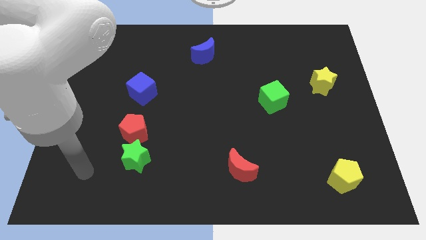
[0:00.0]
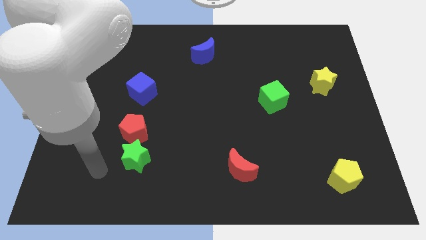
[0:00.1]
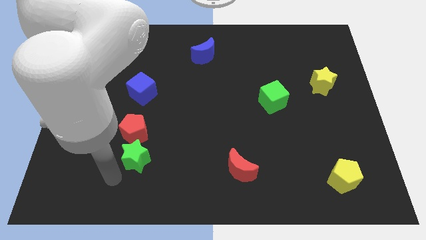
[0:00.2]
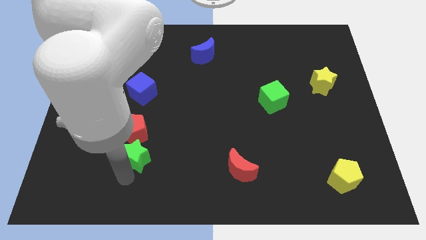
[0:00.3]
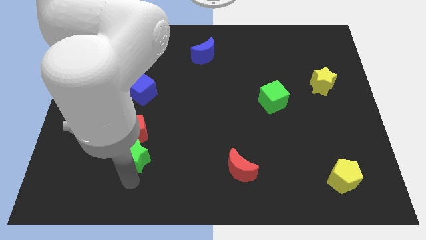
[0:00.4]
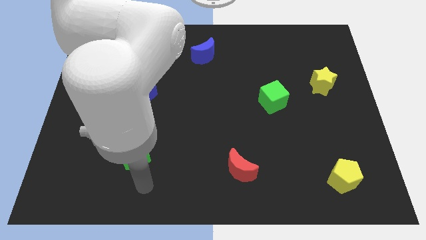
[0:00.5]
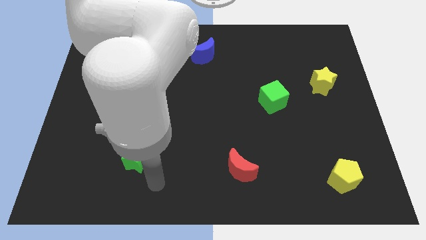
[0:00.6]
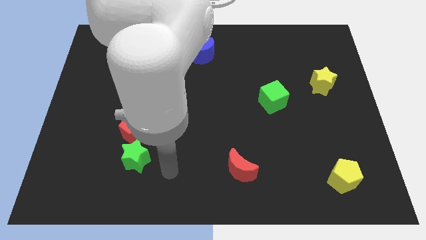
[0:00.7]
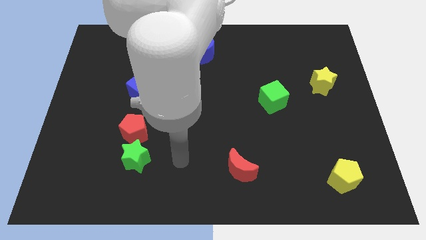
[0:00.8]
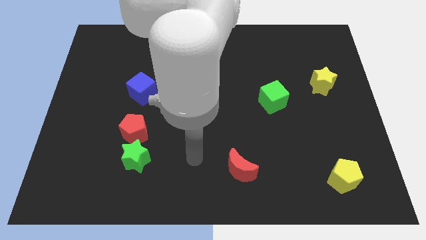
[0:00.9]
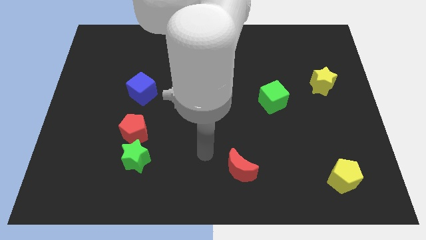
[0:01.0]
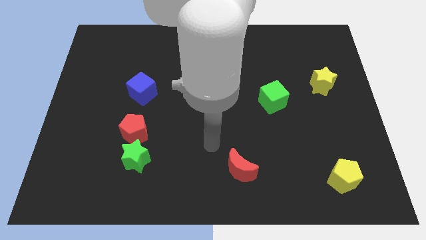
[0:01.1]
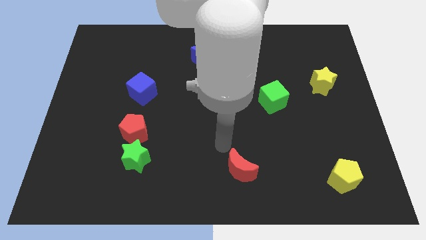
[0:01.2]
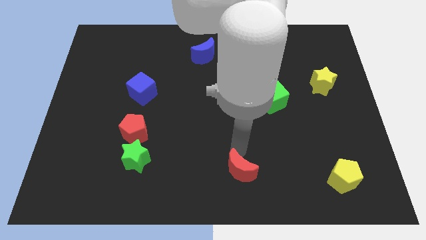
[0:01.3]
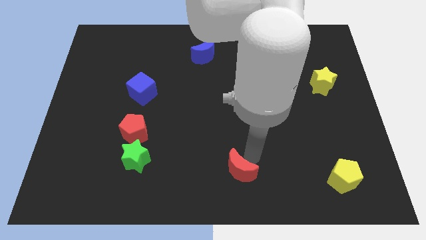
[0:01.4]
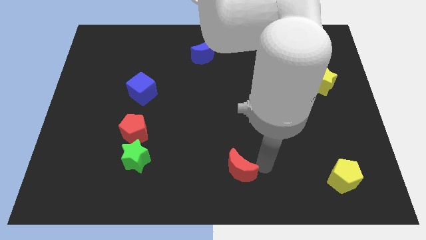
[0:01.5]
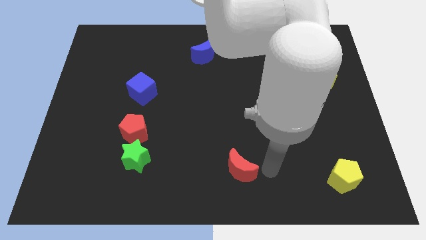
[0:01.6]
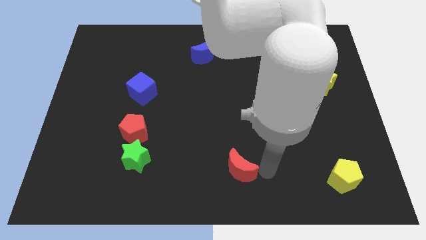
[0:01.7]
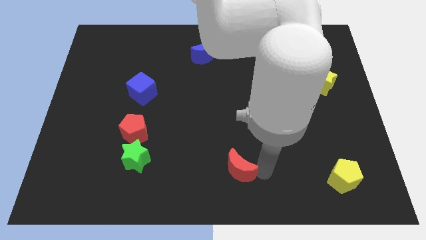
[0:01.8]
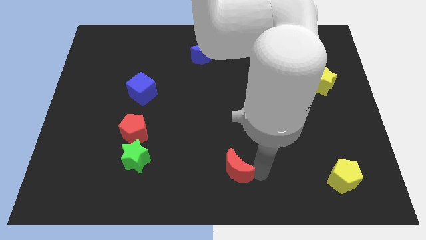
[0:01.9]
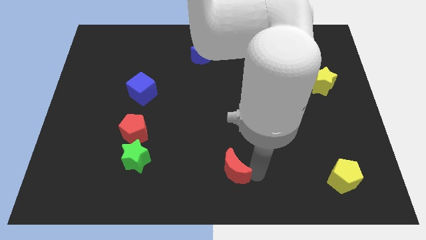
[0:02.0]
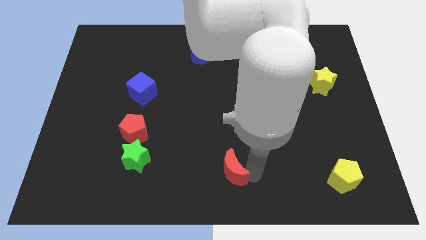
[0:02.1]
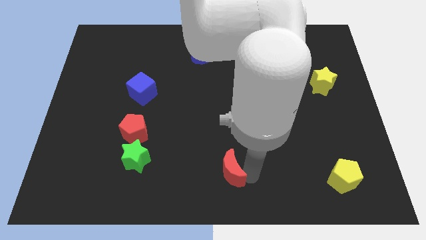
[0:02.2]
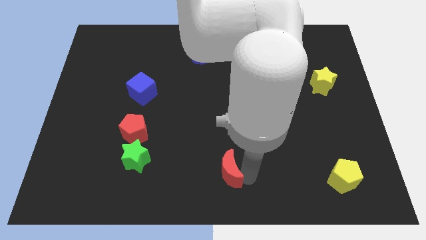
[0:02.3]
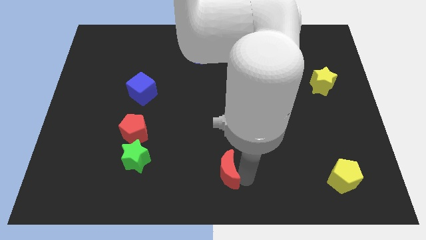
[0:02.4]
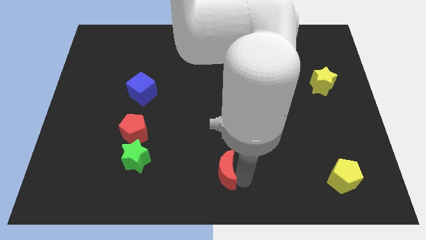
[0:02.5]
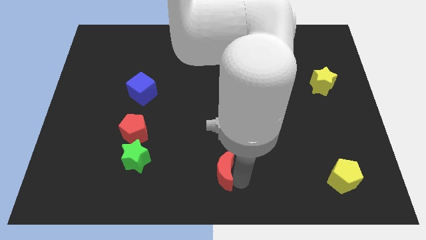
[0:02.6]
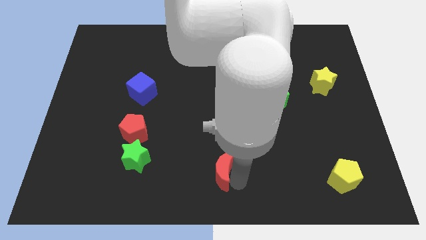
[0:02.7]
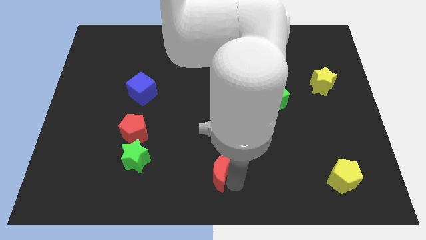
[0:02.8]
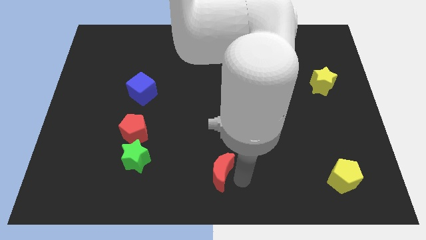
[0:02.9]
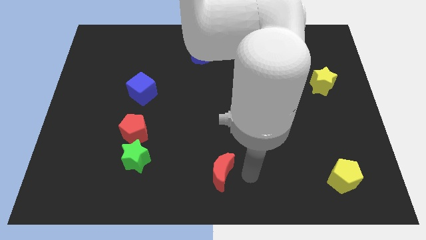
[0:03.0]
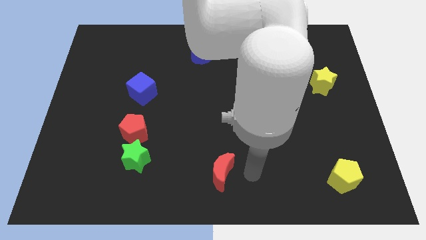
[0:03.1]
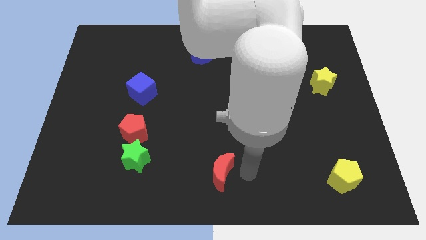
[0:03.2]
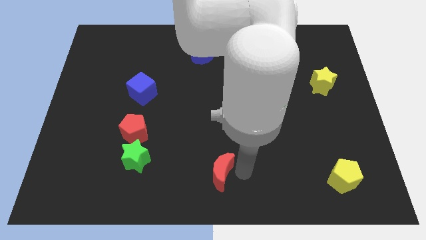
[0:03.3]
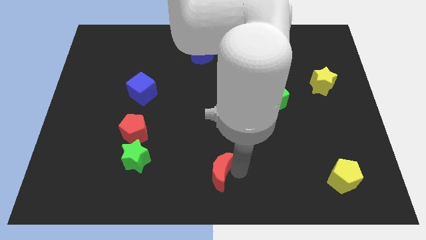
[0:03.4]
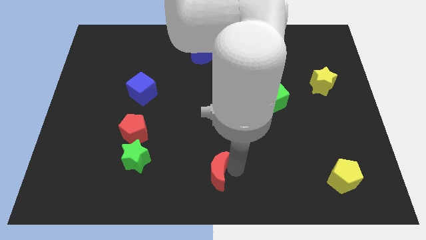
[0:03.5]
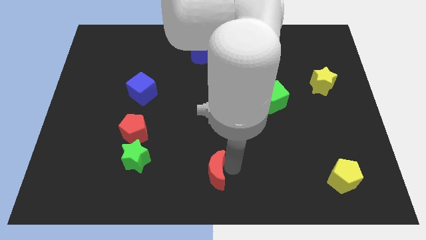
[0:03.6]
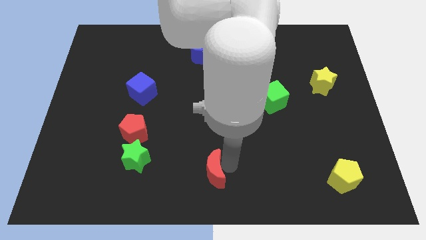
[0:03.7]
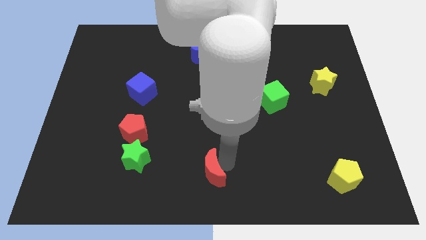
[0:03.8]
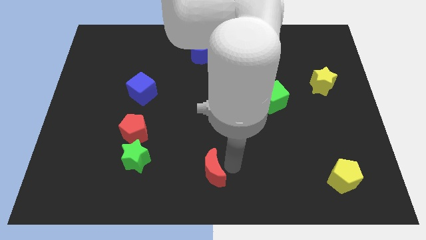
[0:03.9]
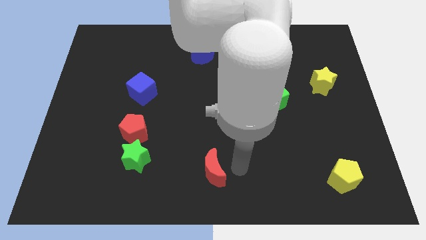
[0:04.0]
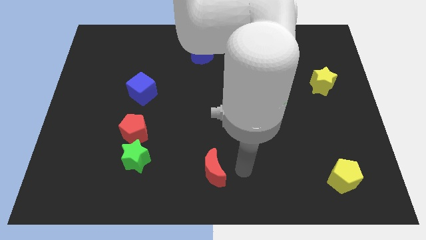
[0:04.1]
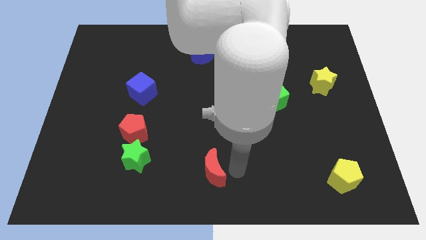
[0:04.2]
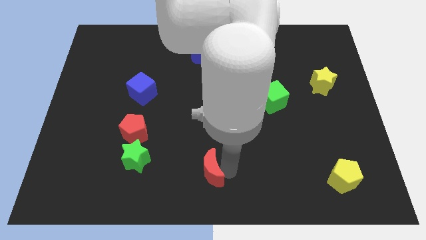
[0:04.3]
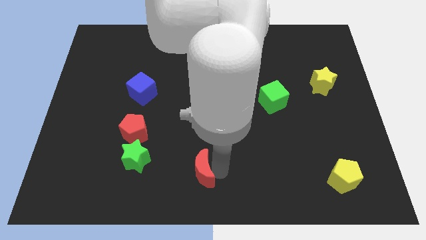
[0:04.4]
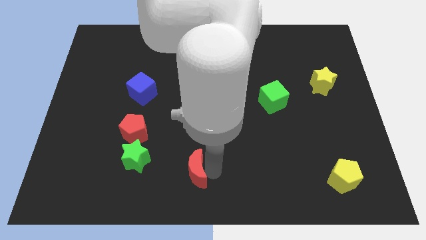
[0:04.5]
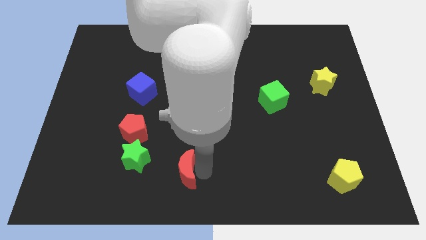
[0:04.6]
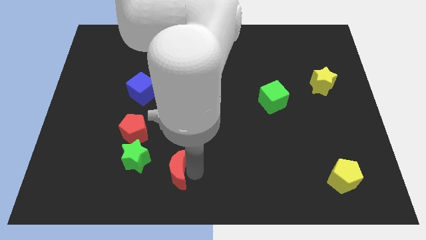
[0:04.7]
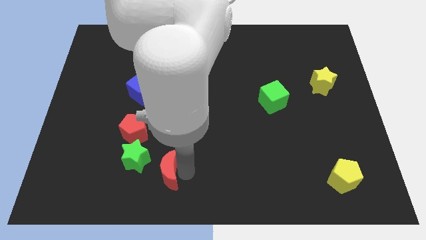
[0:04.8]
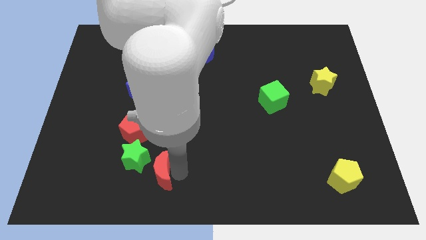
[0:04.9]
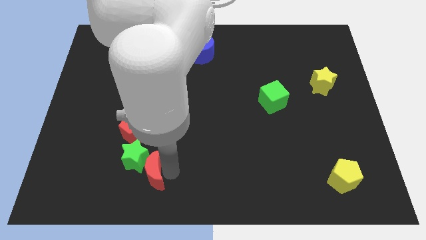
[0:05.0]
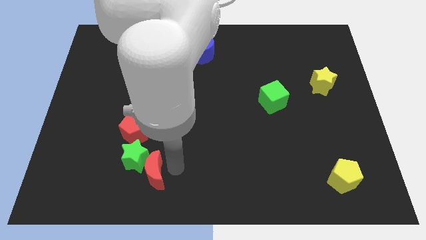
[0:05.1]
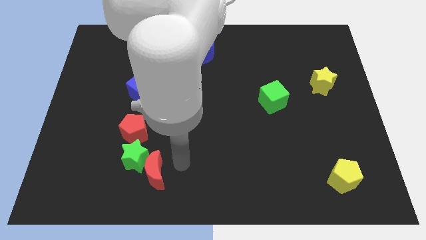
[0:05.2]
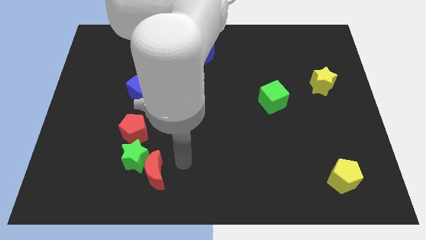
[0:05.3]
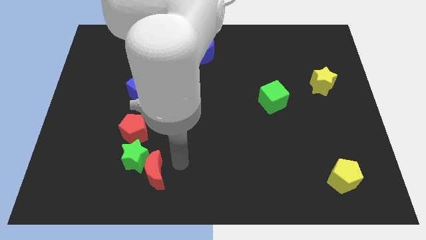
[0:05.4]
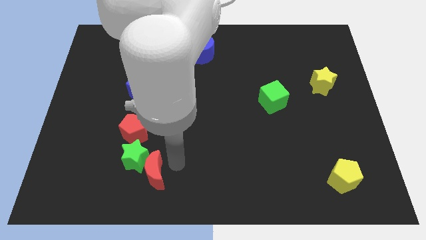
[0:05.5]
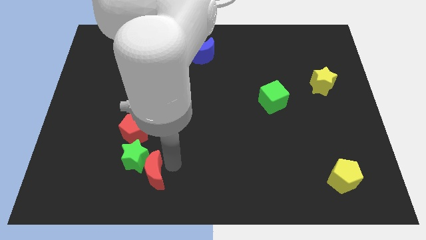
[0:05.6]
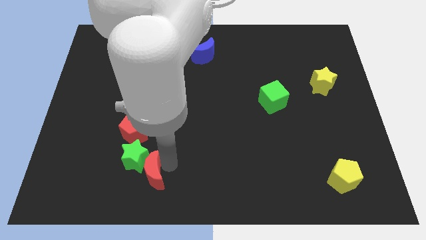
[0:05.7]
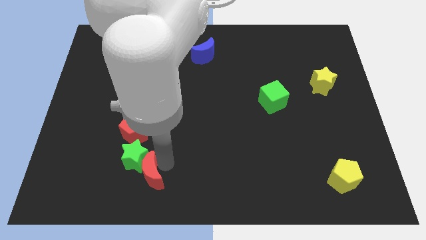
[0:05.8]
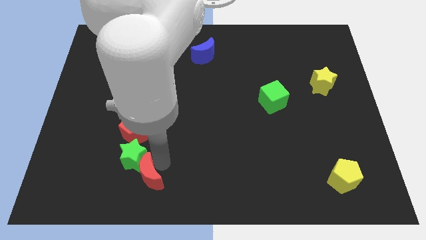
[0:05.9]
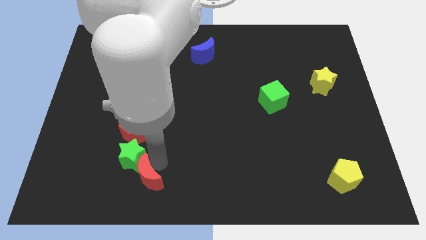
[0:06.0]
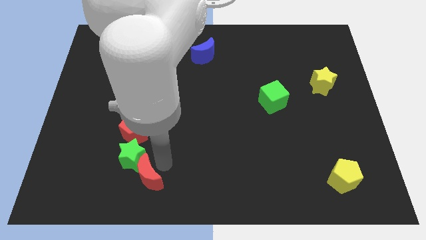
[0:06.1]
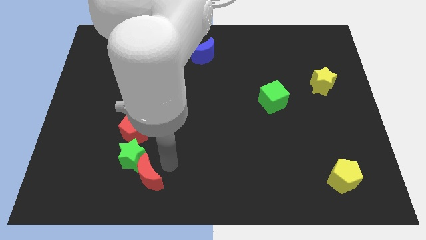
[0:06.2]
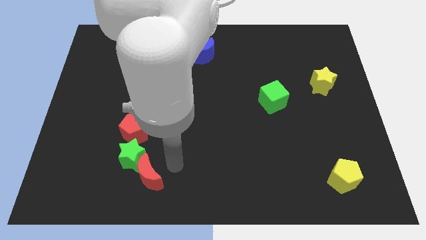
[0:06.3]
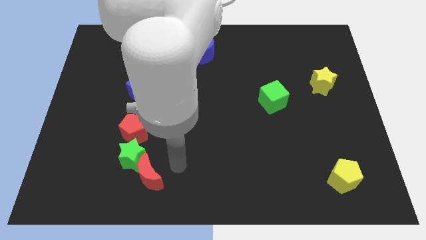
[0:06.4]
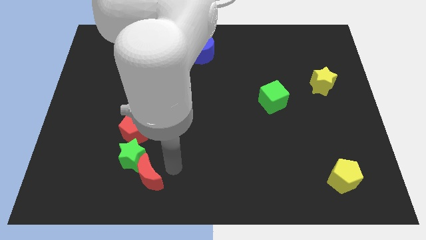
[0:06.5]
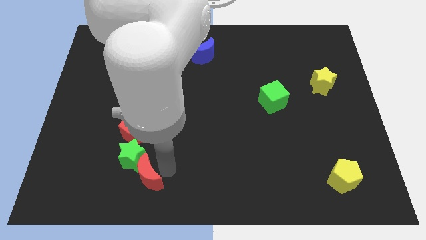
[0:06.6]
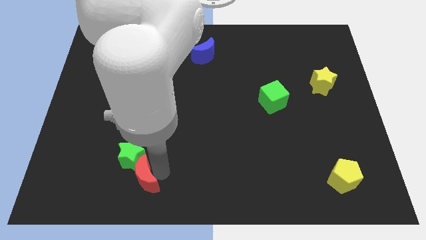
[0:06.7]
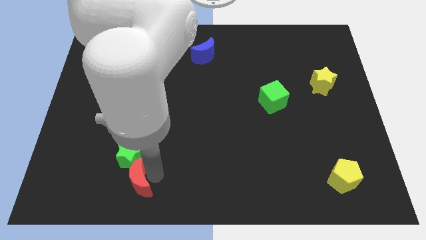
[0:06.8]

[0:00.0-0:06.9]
slide the red moon to the left

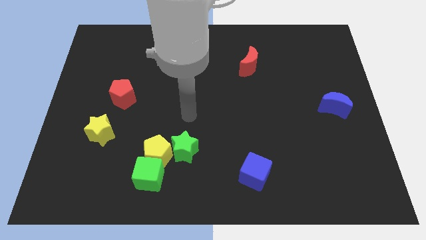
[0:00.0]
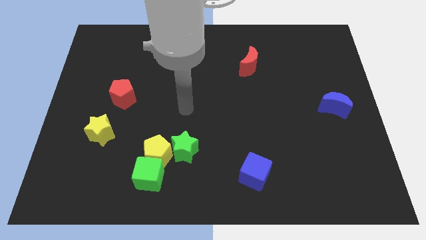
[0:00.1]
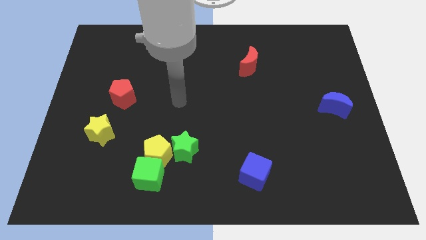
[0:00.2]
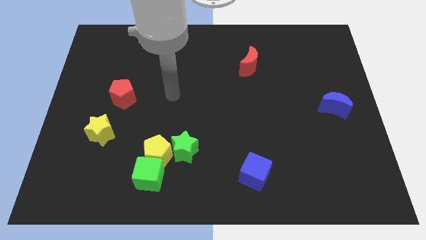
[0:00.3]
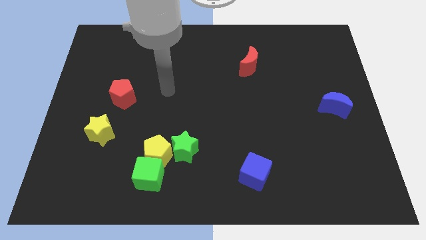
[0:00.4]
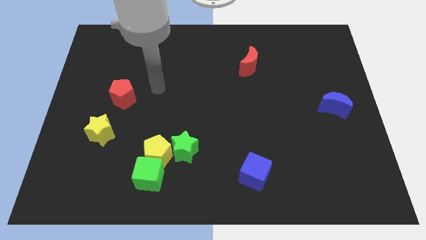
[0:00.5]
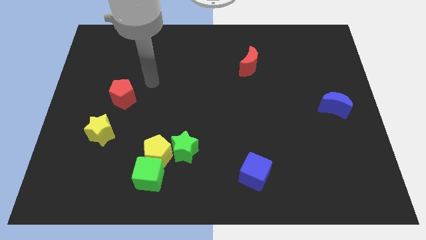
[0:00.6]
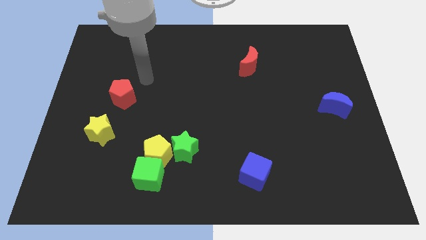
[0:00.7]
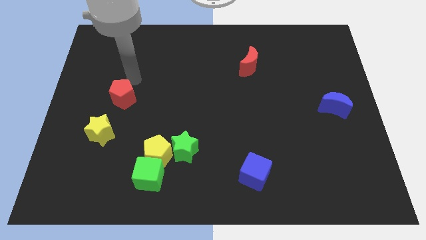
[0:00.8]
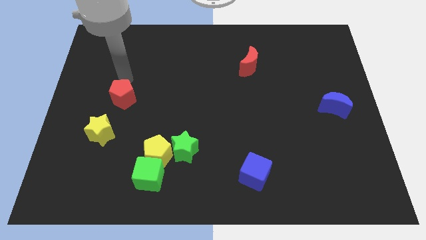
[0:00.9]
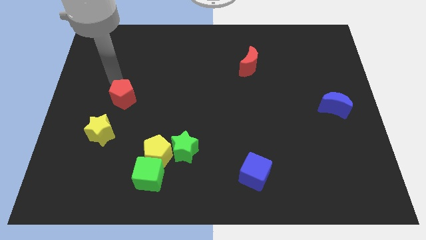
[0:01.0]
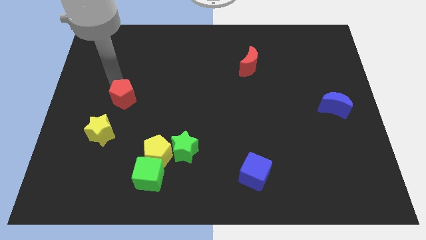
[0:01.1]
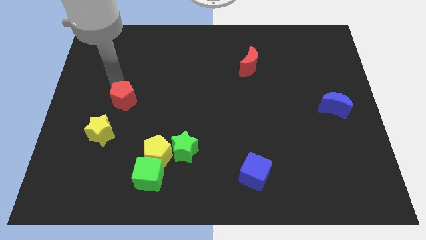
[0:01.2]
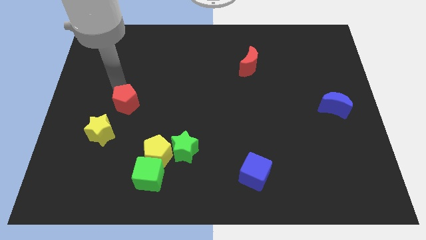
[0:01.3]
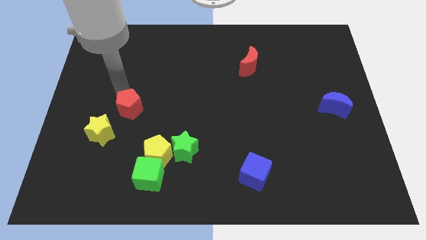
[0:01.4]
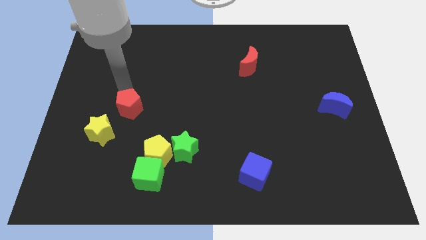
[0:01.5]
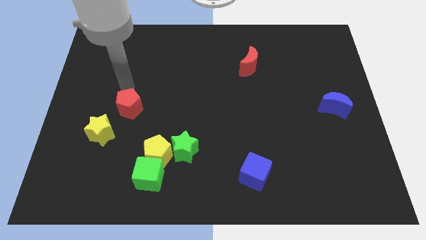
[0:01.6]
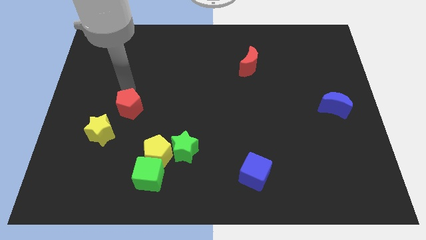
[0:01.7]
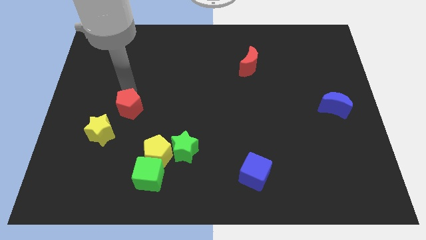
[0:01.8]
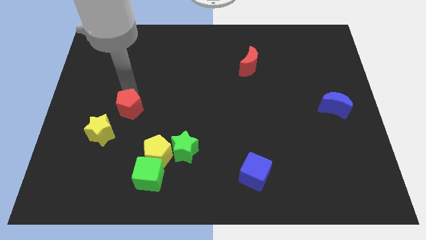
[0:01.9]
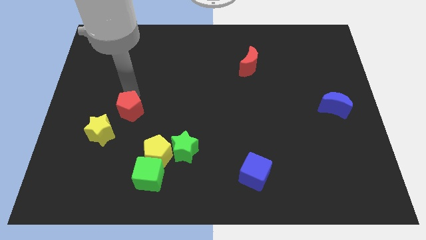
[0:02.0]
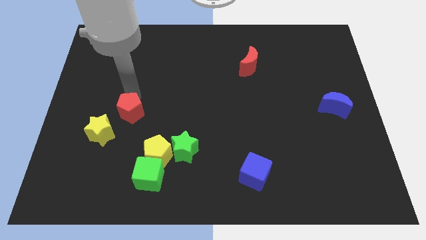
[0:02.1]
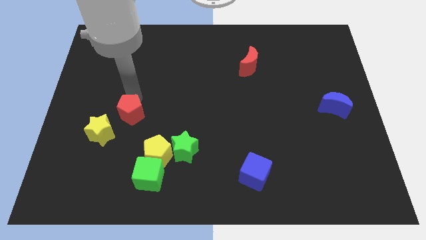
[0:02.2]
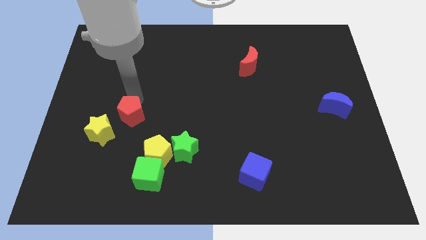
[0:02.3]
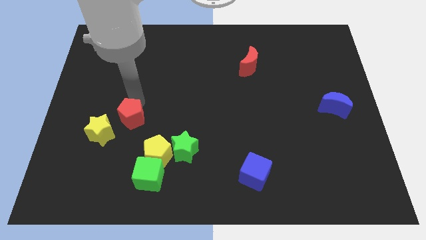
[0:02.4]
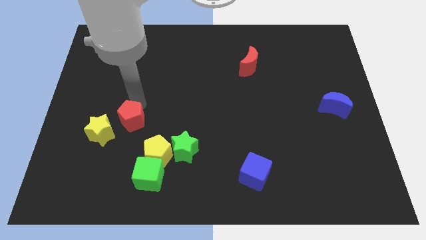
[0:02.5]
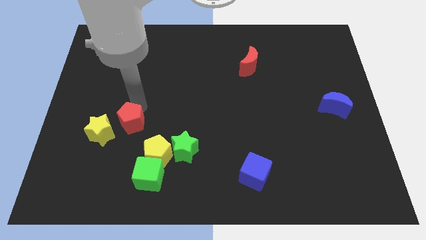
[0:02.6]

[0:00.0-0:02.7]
push the red pentagon somewhat down
